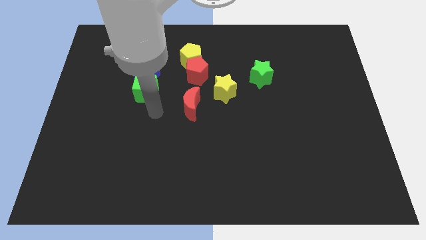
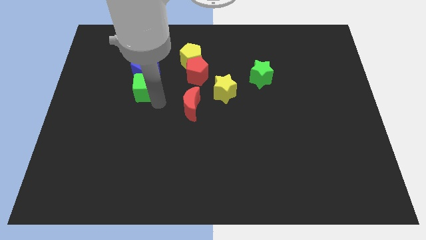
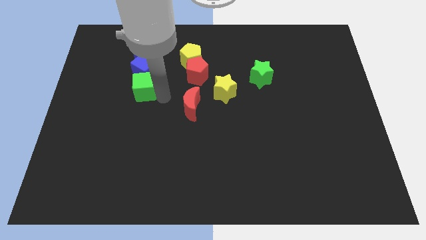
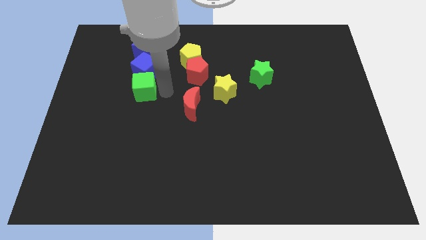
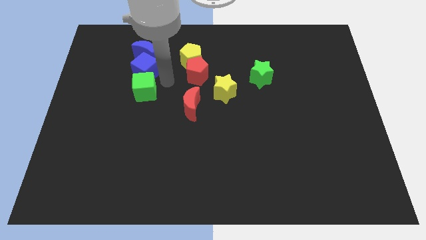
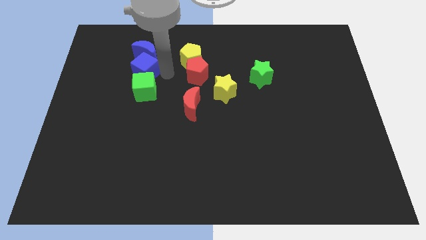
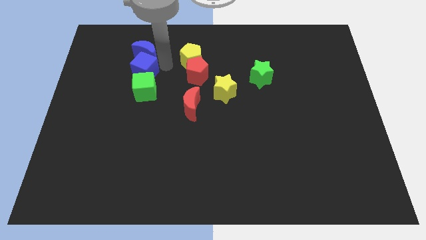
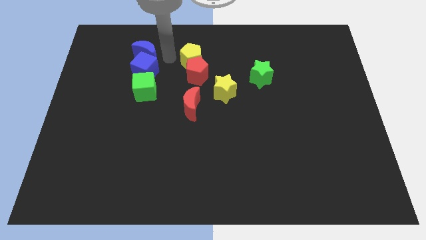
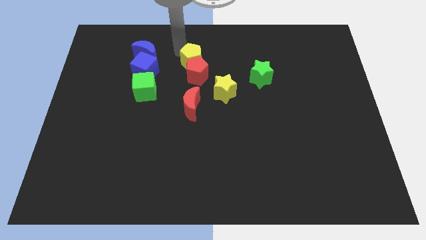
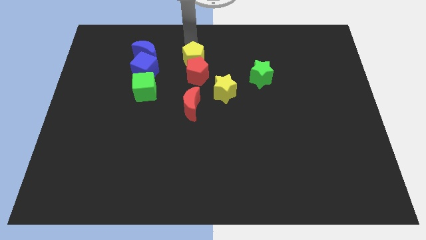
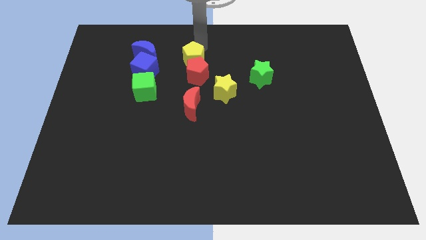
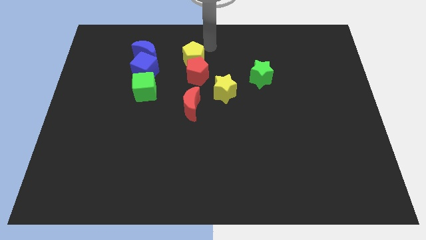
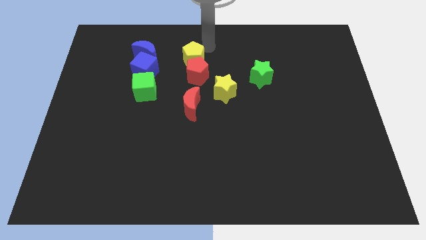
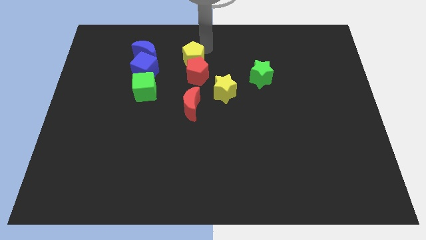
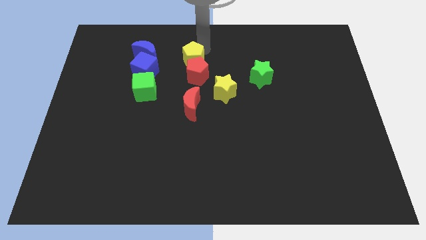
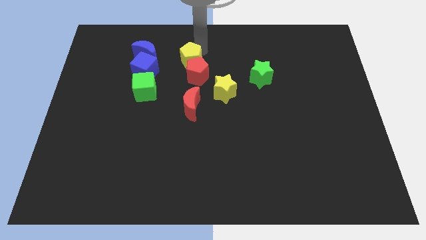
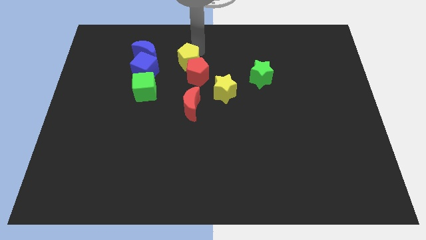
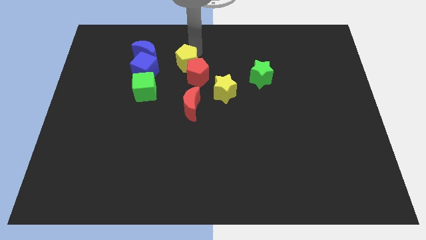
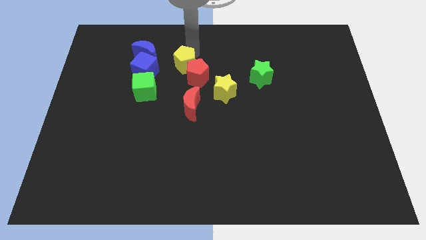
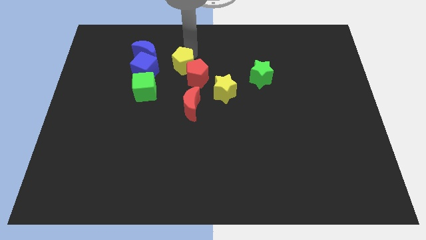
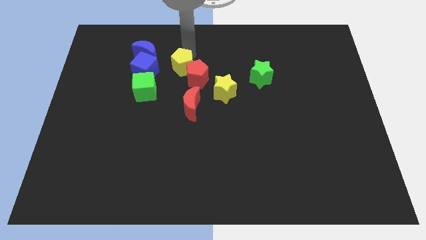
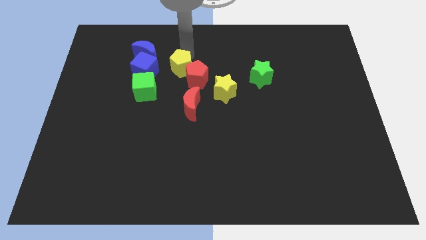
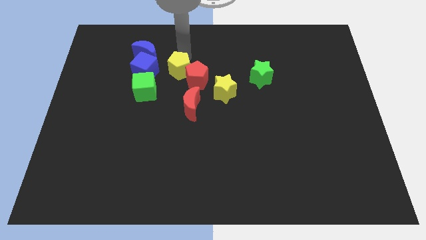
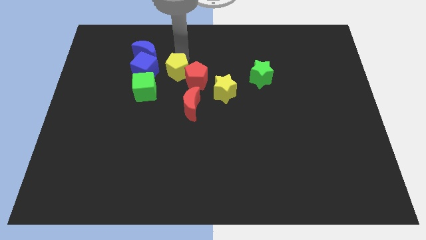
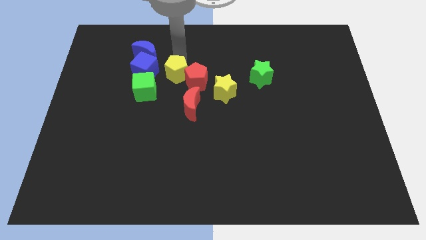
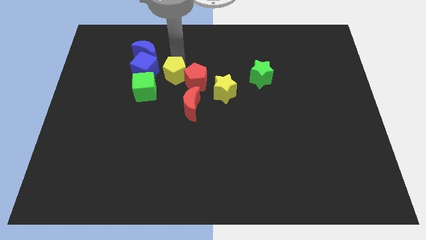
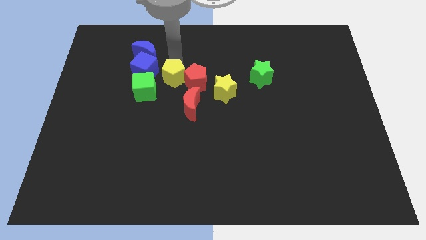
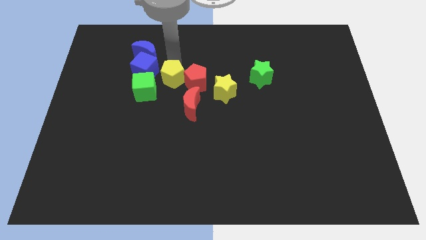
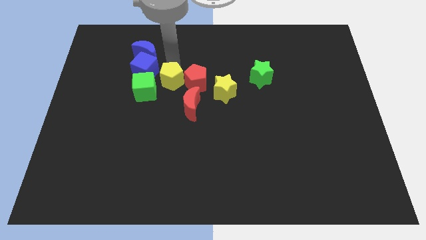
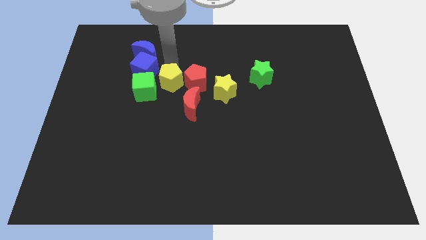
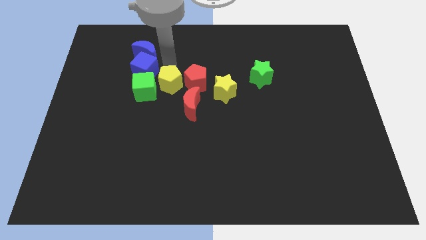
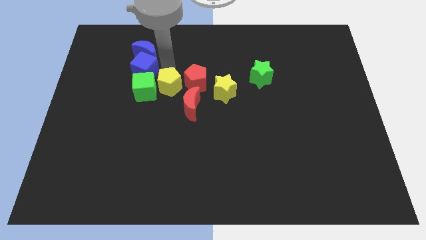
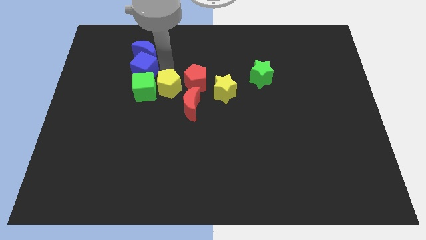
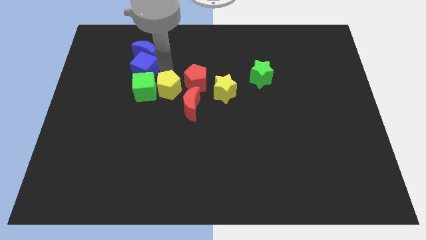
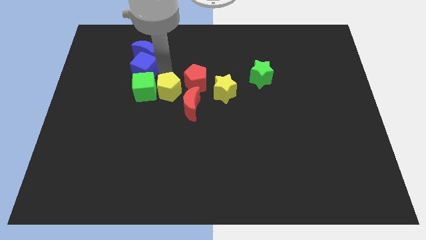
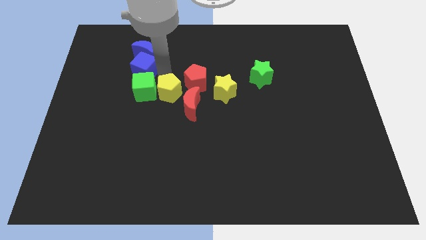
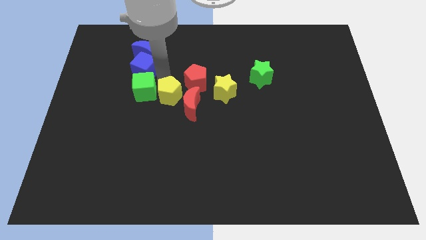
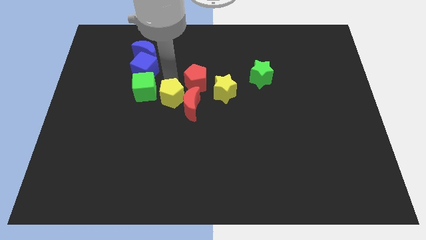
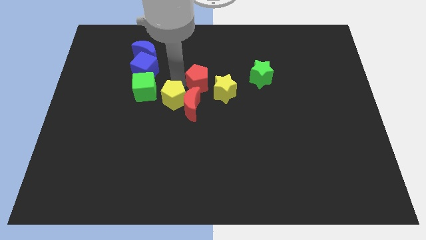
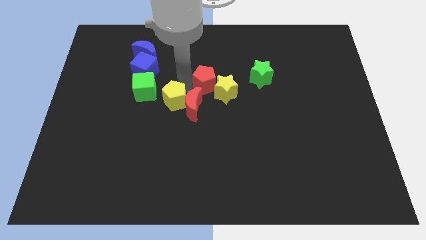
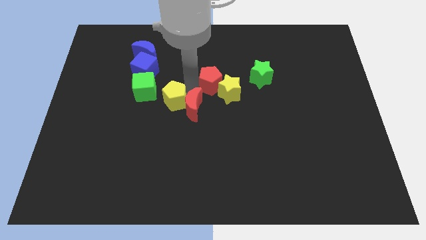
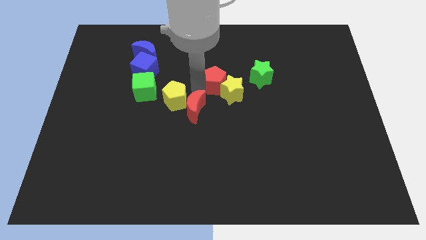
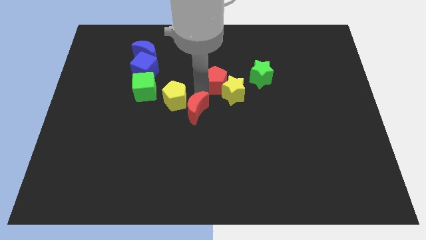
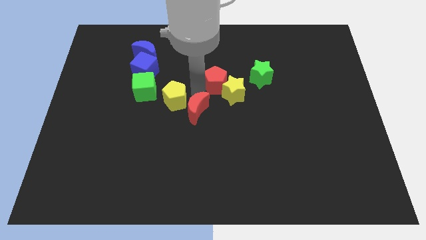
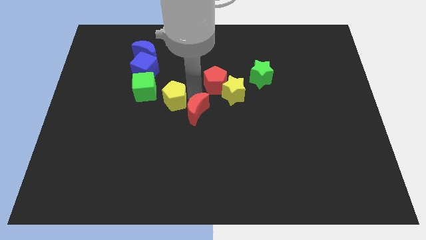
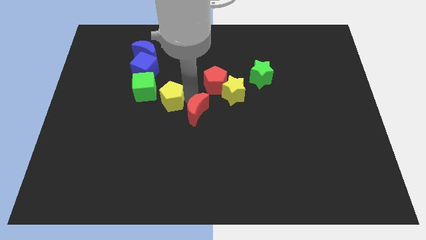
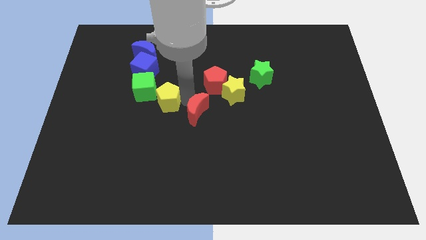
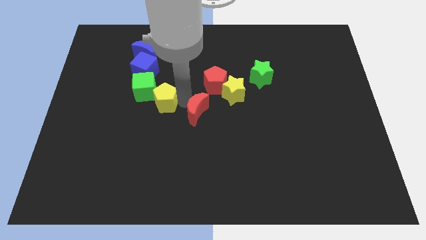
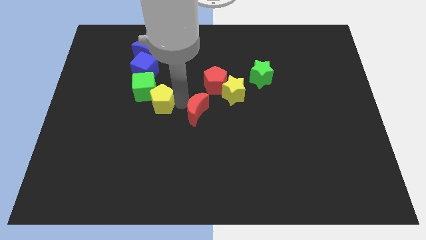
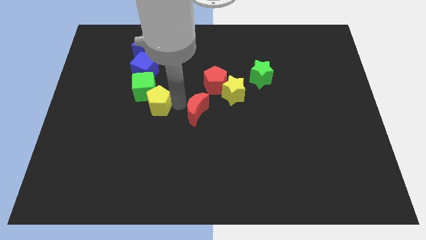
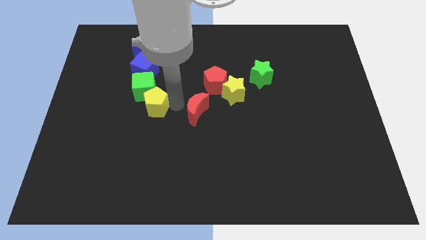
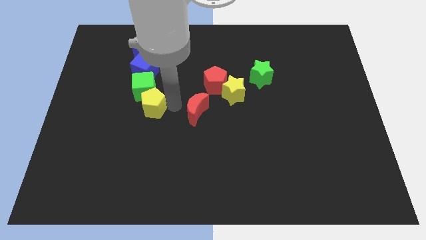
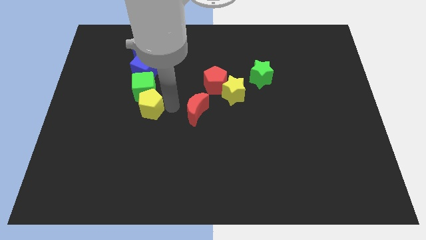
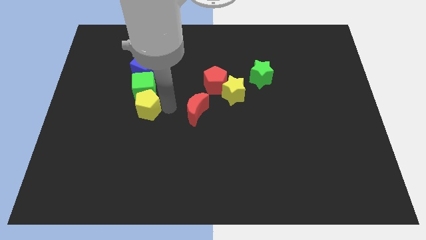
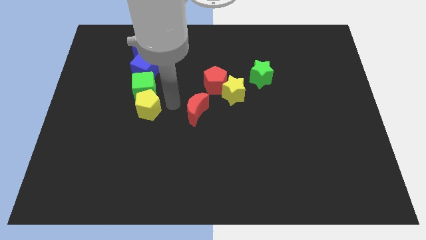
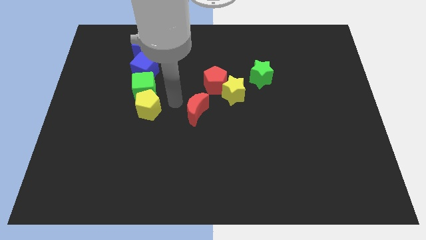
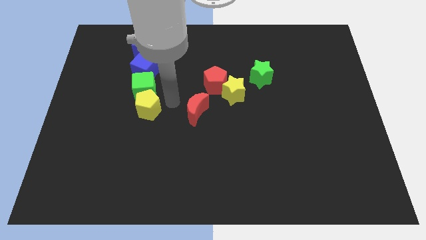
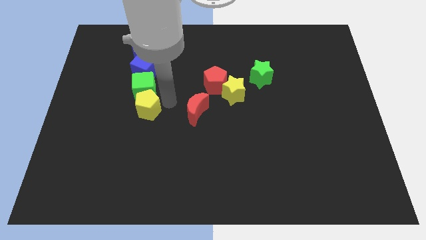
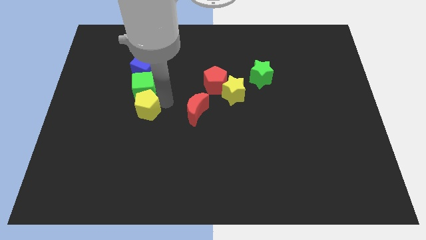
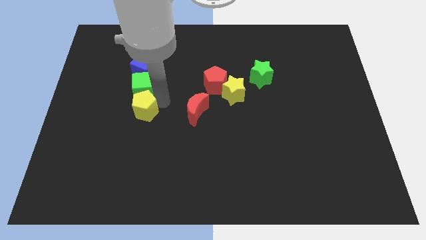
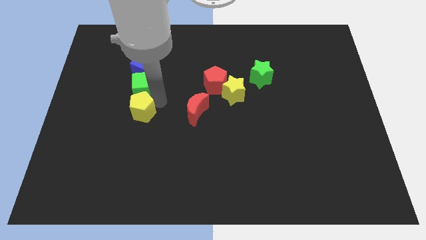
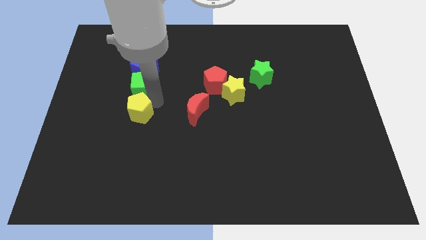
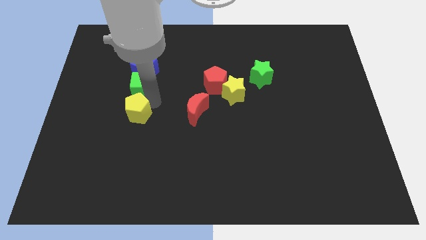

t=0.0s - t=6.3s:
move the yellow pentagon diagonally down and to the left

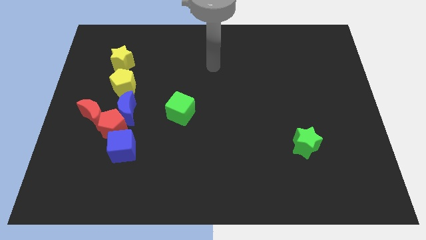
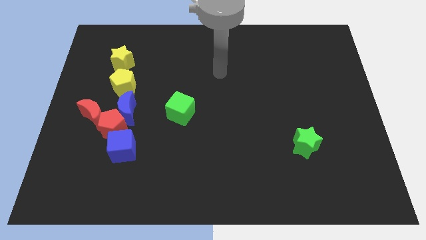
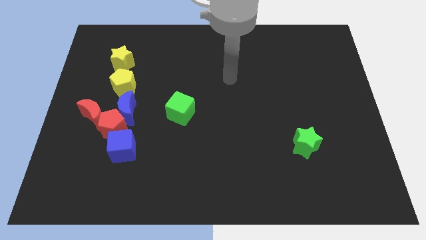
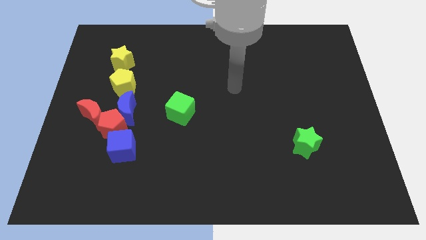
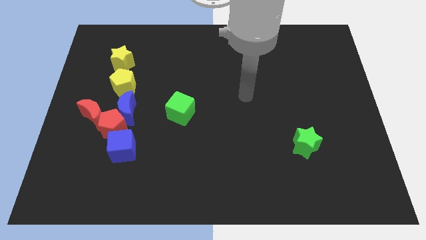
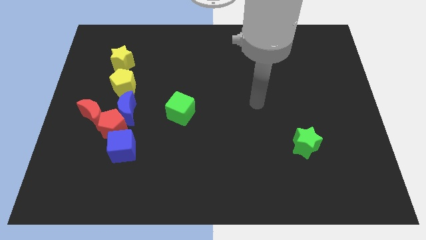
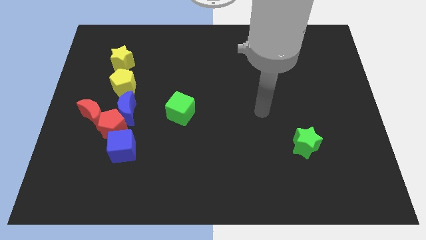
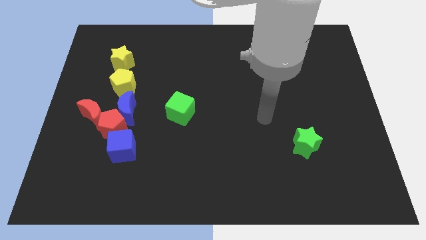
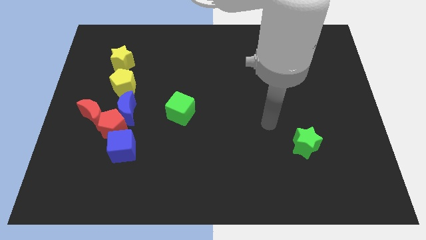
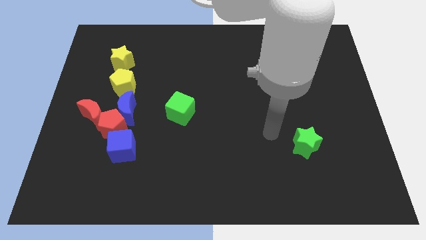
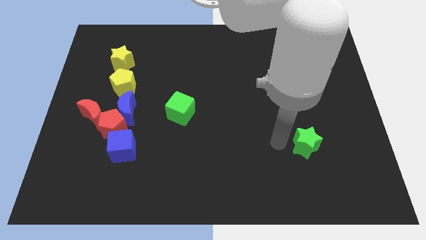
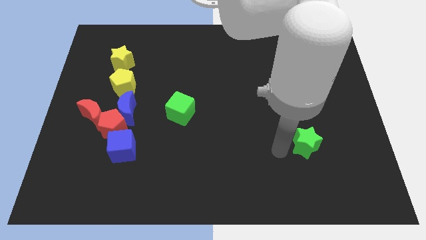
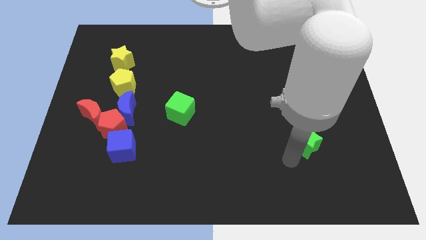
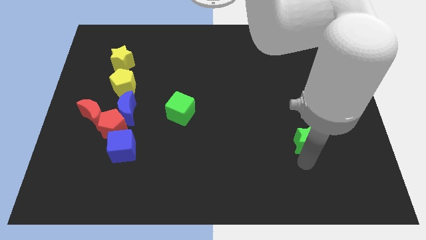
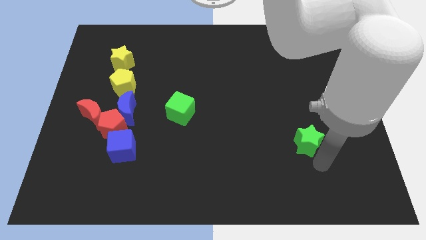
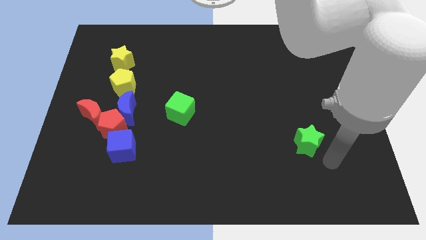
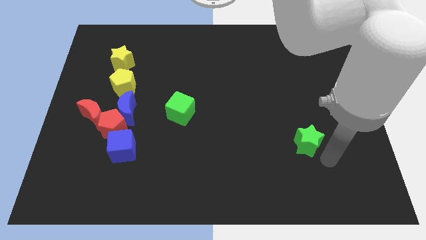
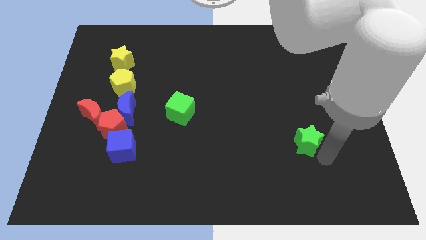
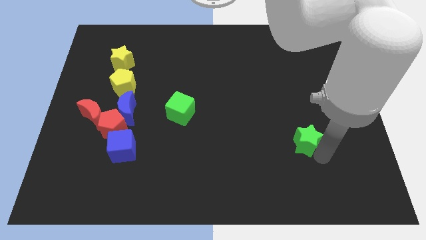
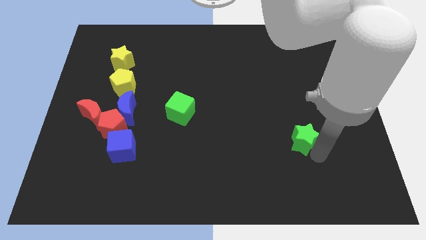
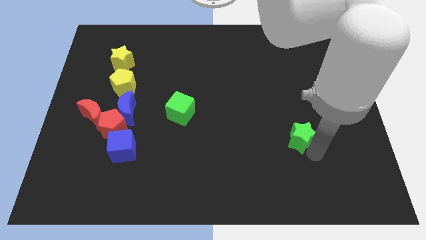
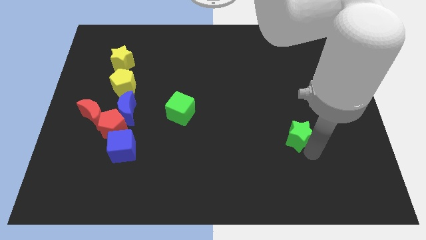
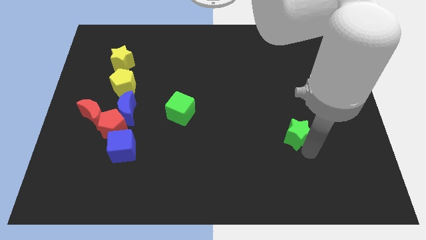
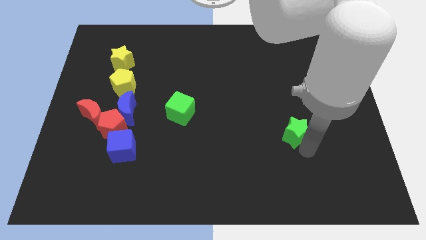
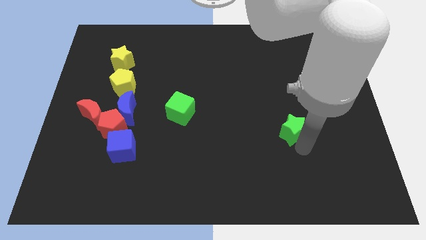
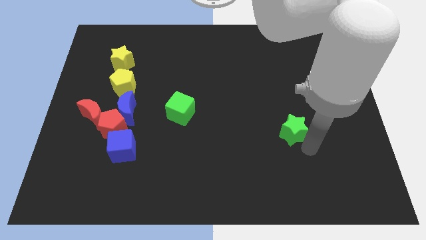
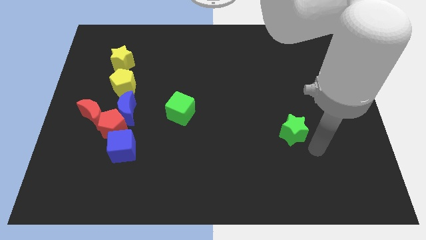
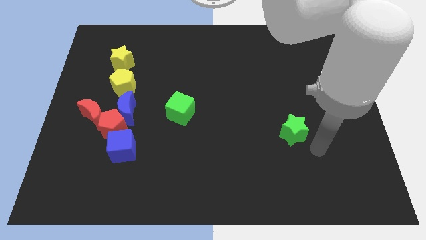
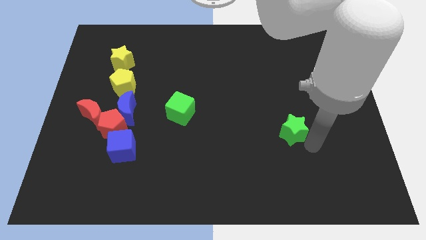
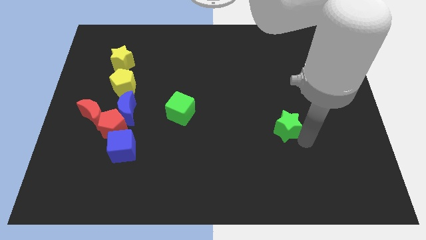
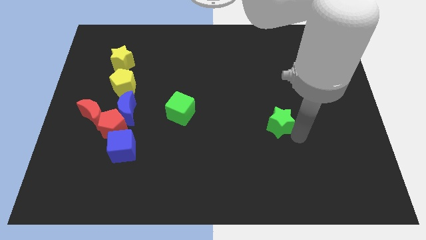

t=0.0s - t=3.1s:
push the green star diagonally upwards and to the left somewhat
